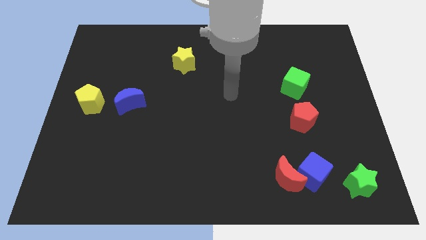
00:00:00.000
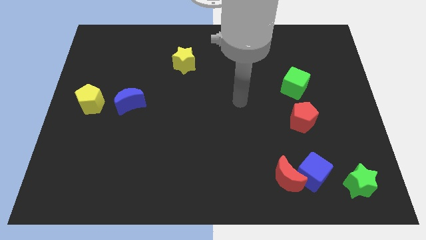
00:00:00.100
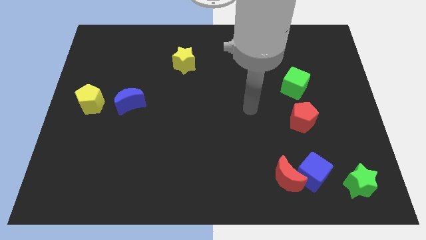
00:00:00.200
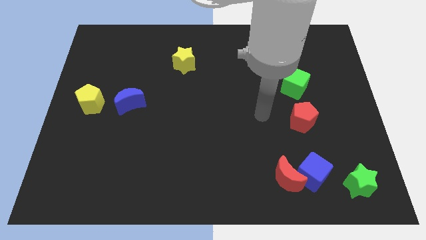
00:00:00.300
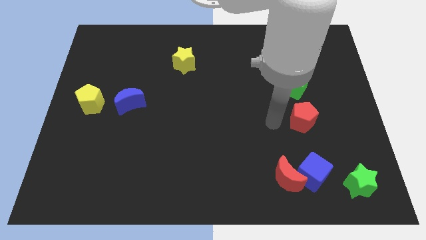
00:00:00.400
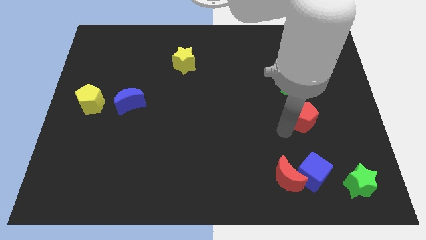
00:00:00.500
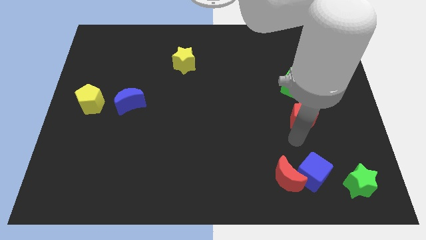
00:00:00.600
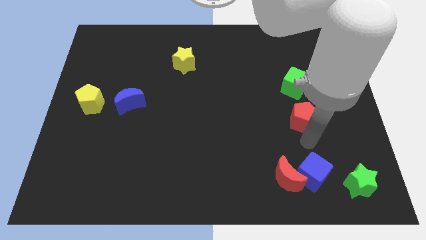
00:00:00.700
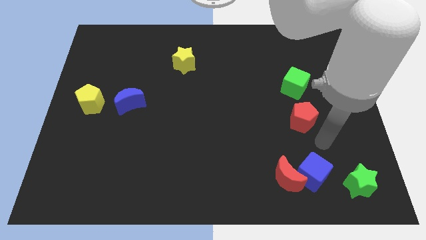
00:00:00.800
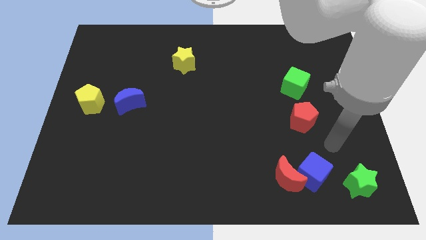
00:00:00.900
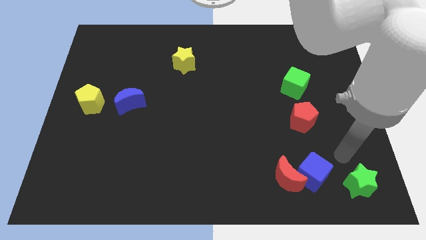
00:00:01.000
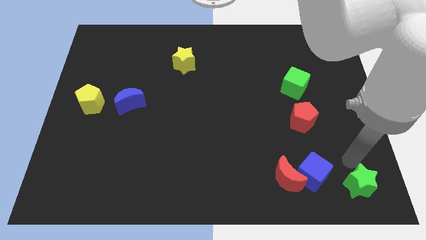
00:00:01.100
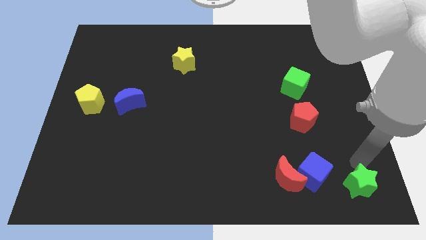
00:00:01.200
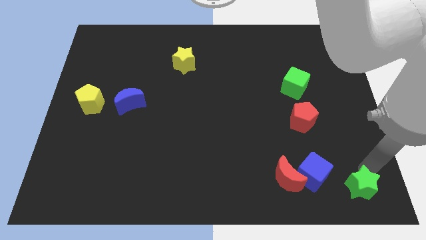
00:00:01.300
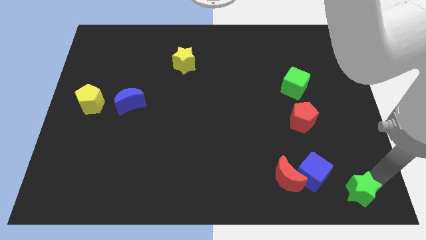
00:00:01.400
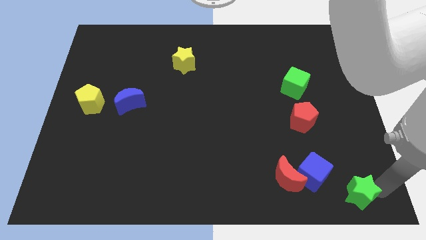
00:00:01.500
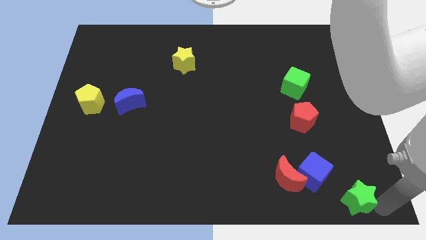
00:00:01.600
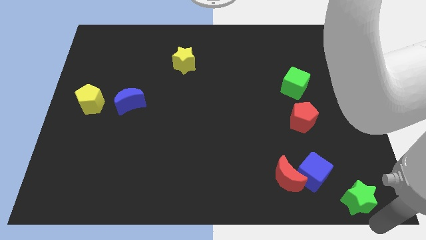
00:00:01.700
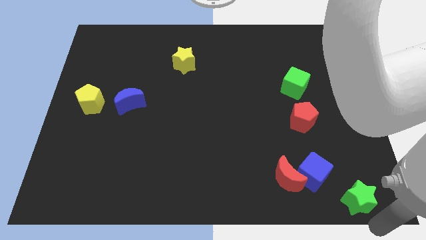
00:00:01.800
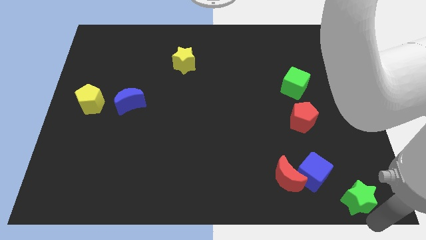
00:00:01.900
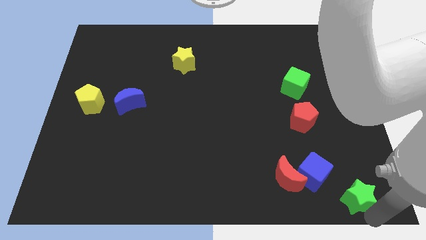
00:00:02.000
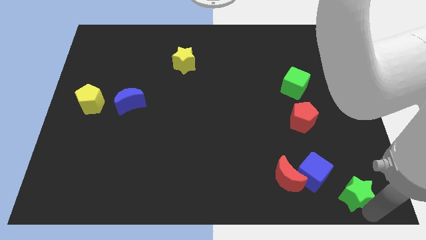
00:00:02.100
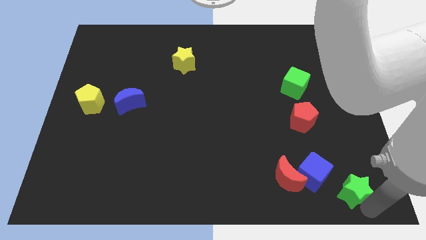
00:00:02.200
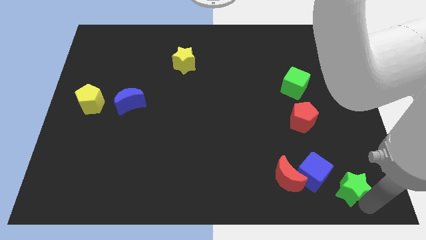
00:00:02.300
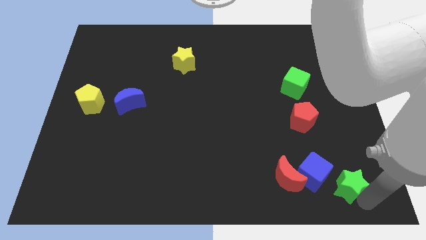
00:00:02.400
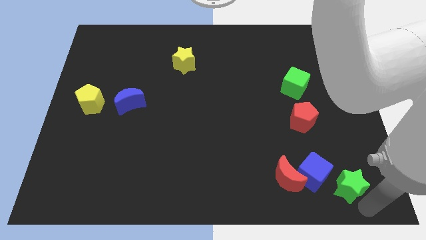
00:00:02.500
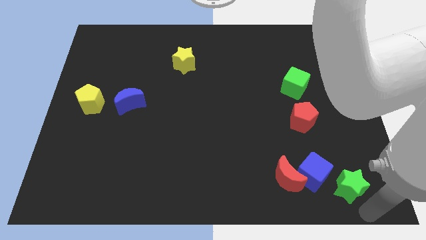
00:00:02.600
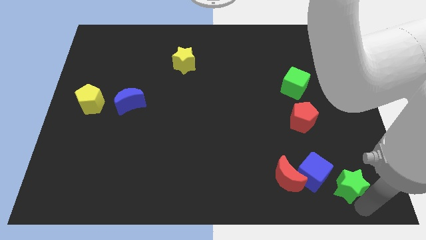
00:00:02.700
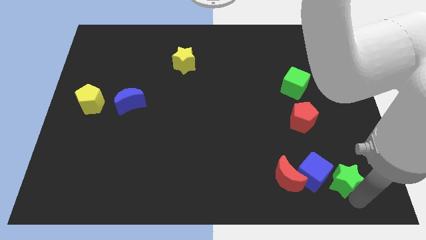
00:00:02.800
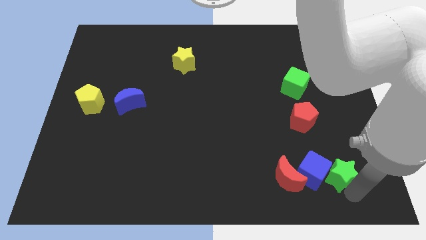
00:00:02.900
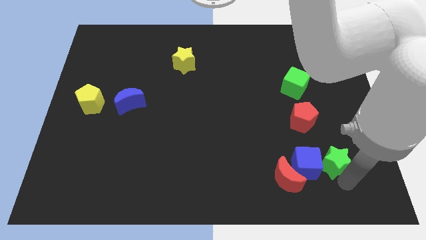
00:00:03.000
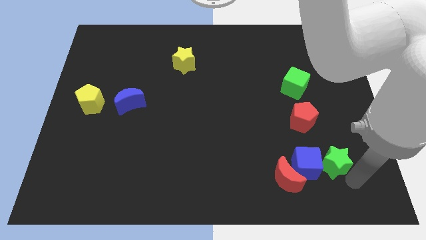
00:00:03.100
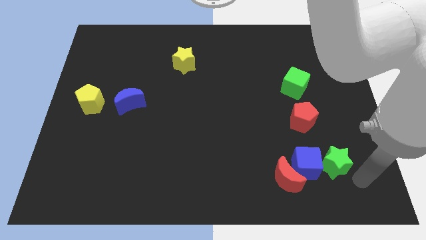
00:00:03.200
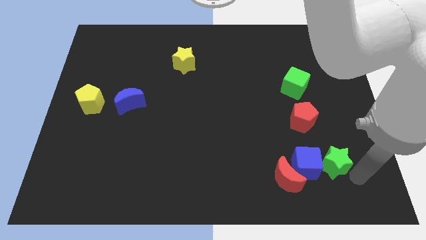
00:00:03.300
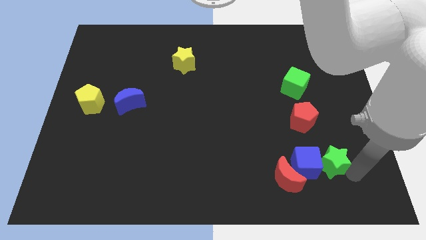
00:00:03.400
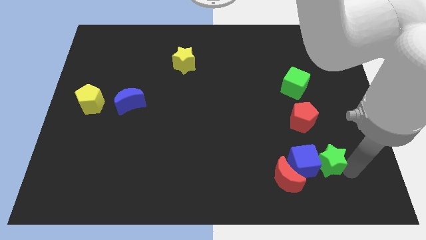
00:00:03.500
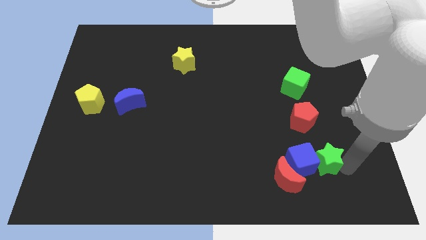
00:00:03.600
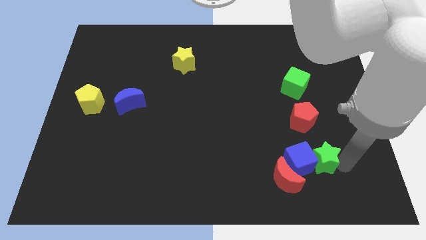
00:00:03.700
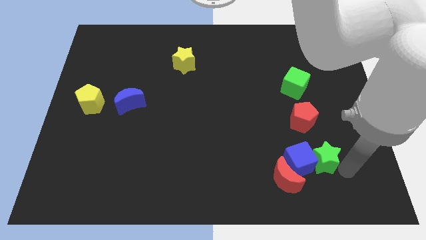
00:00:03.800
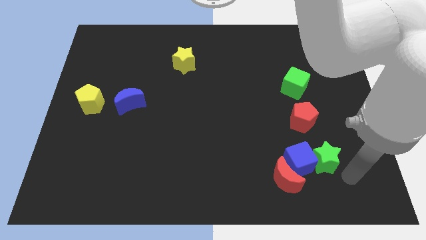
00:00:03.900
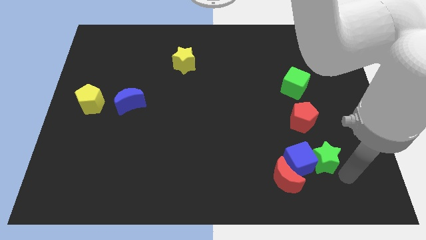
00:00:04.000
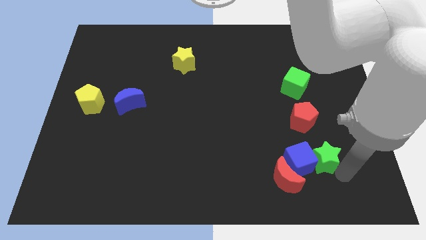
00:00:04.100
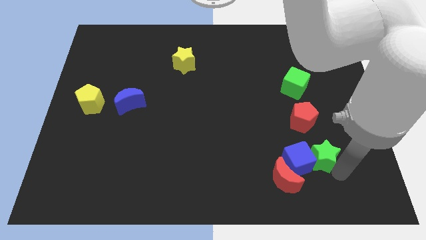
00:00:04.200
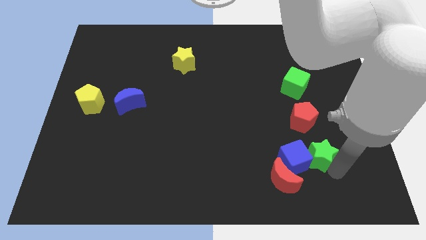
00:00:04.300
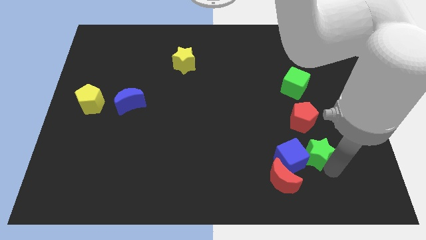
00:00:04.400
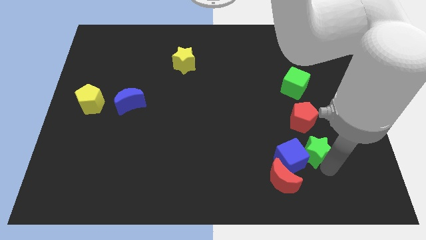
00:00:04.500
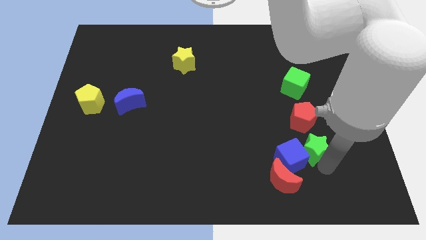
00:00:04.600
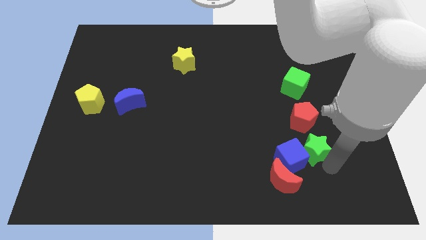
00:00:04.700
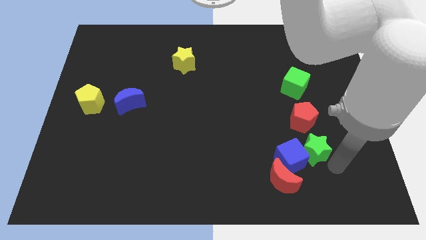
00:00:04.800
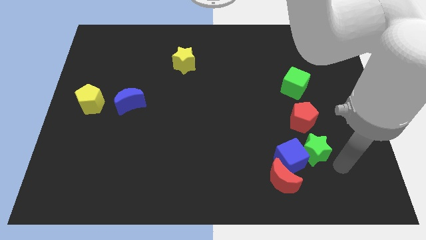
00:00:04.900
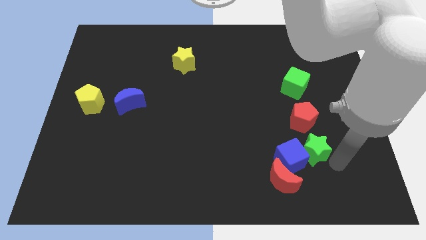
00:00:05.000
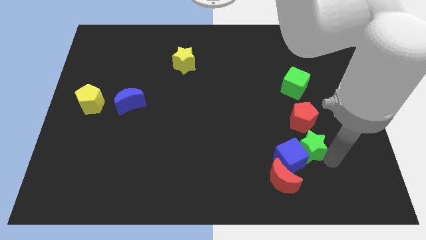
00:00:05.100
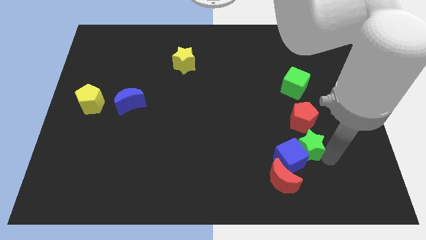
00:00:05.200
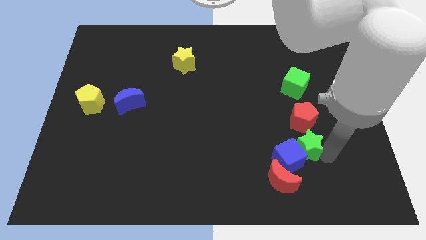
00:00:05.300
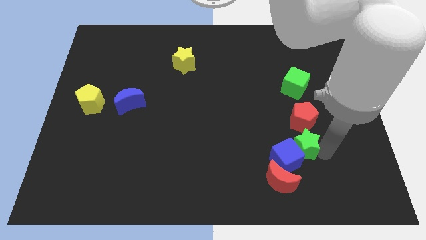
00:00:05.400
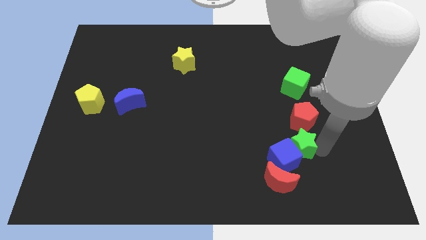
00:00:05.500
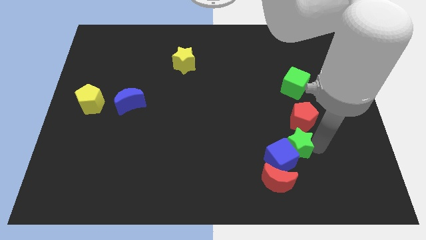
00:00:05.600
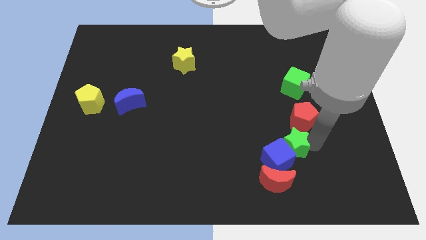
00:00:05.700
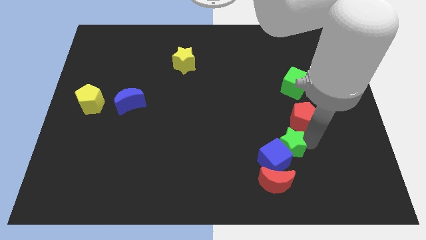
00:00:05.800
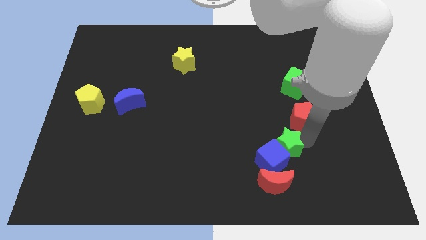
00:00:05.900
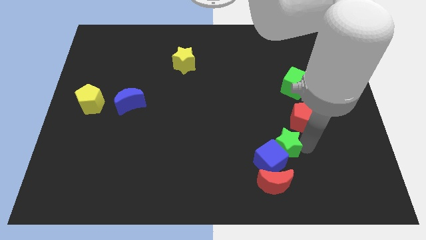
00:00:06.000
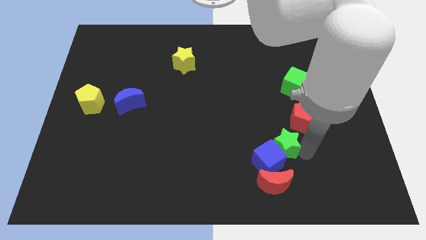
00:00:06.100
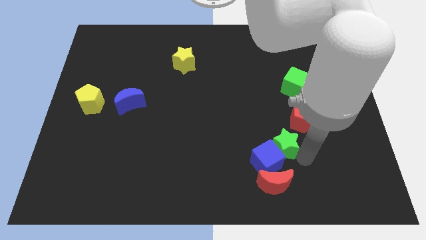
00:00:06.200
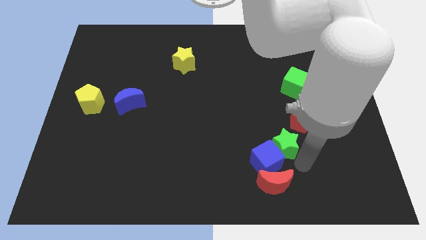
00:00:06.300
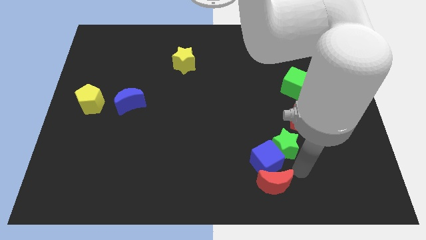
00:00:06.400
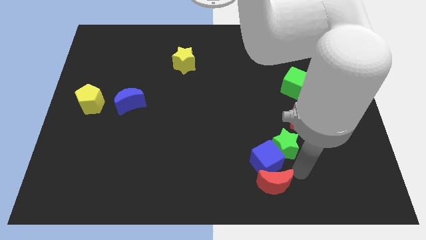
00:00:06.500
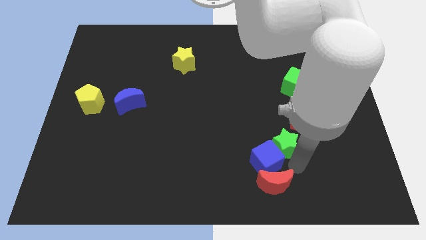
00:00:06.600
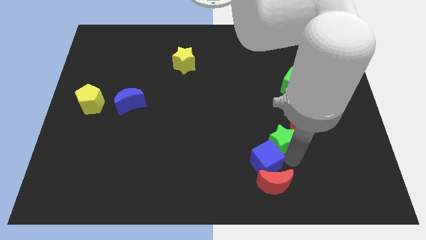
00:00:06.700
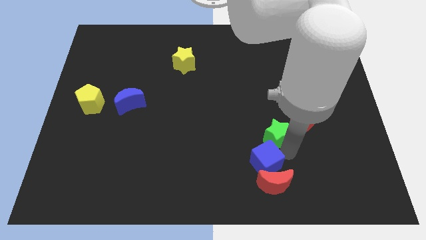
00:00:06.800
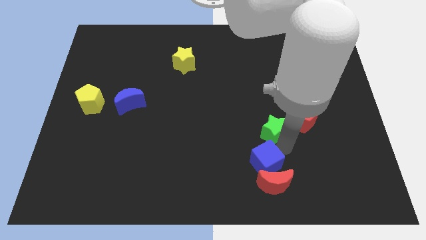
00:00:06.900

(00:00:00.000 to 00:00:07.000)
move the green star upwards and left diagonally

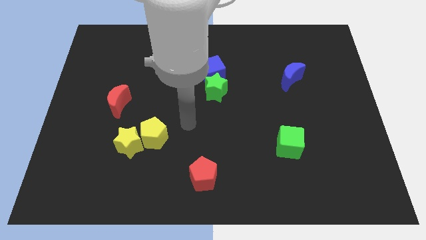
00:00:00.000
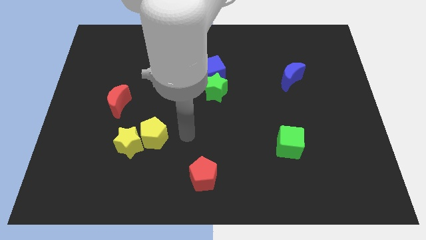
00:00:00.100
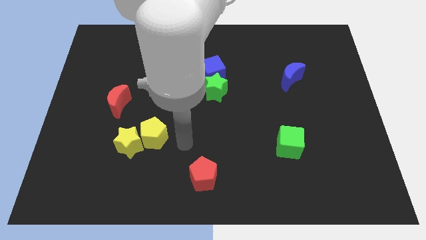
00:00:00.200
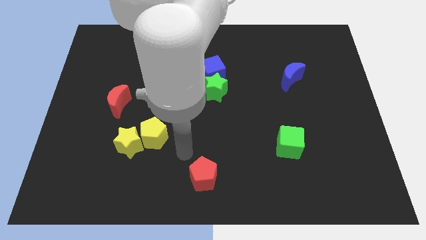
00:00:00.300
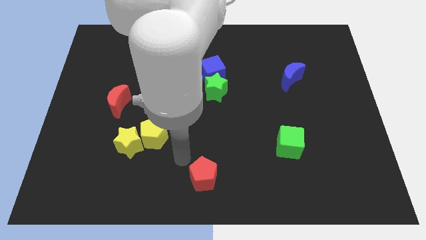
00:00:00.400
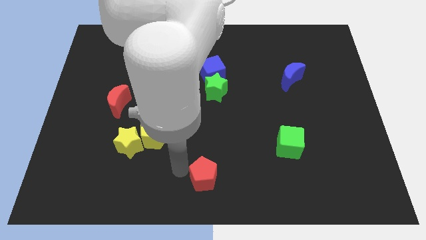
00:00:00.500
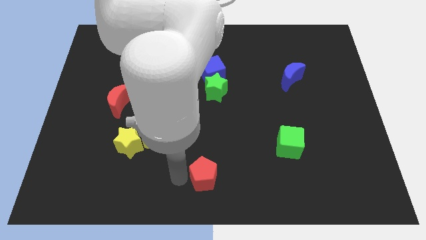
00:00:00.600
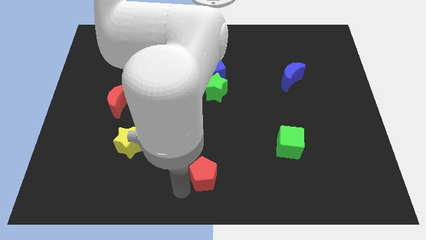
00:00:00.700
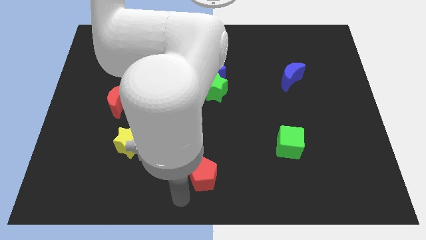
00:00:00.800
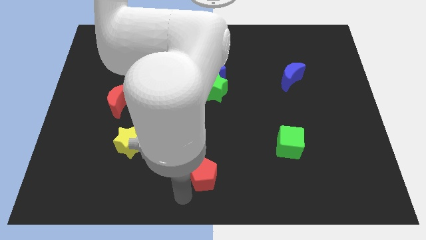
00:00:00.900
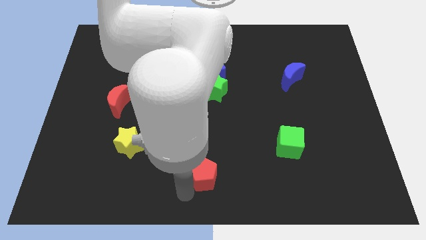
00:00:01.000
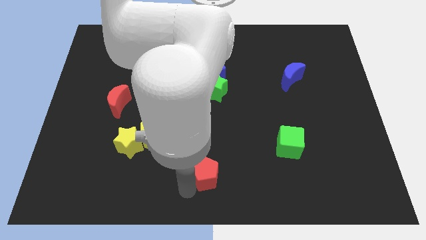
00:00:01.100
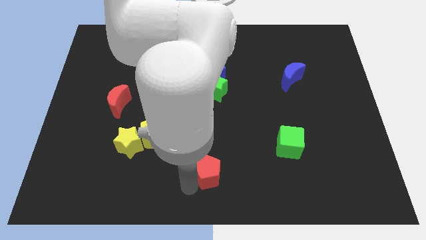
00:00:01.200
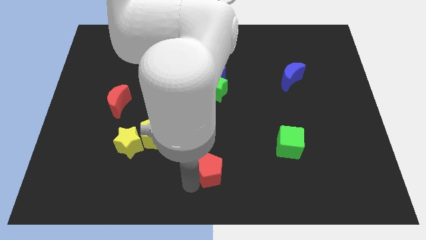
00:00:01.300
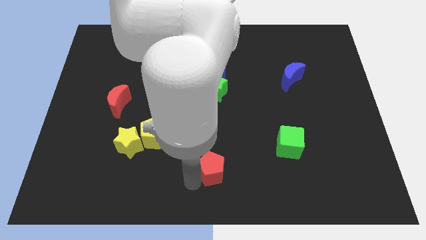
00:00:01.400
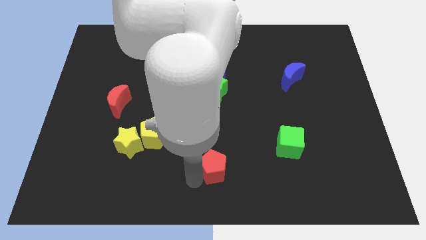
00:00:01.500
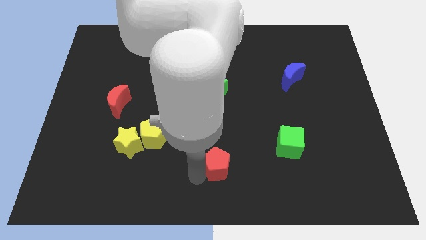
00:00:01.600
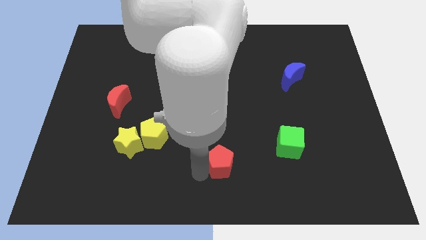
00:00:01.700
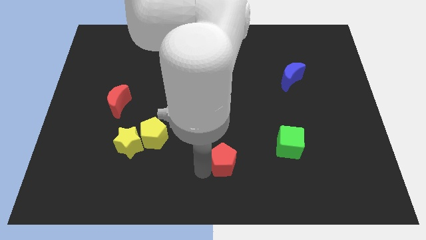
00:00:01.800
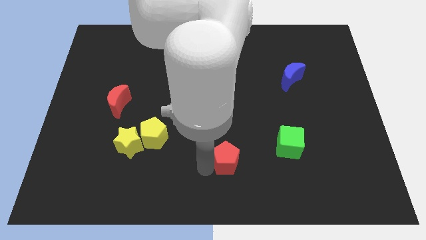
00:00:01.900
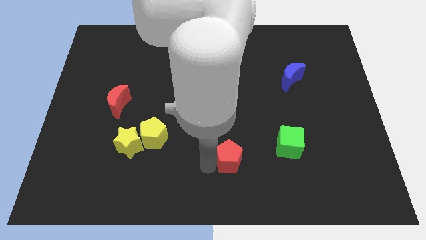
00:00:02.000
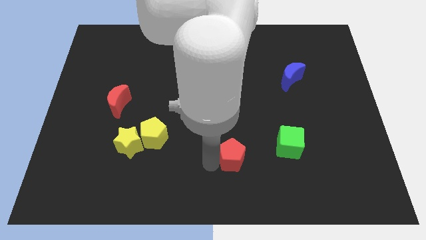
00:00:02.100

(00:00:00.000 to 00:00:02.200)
slightly slide the red pentagon up and right diagonally
